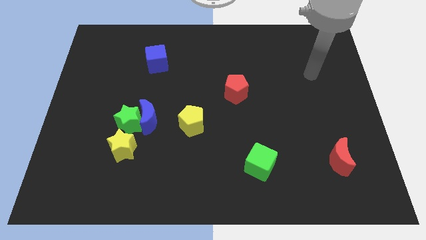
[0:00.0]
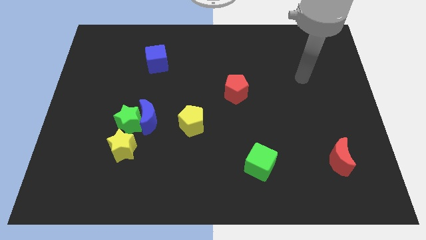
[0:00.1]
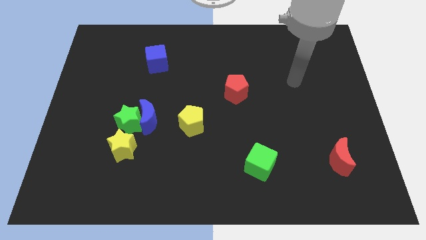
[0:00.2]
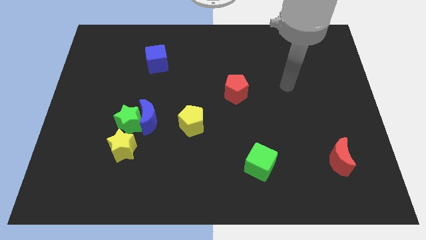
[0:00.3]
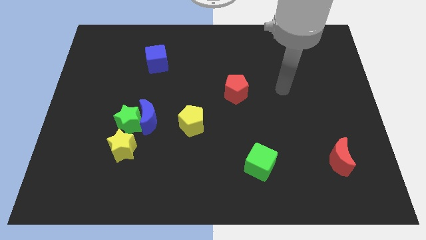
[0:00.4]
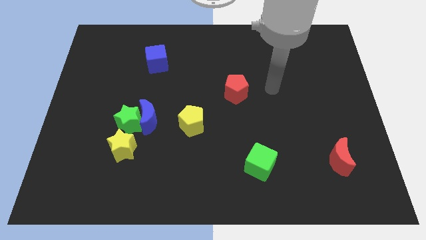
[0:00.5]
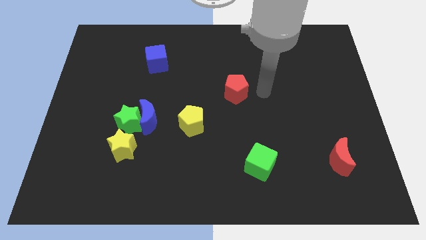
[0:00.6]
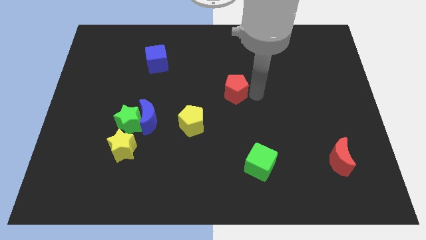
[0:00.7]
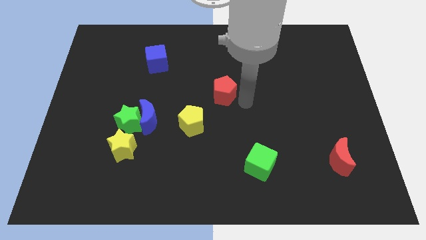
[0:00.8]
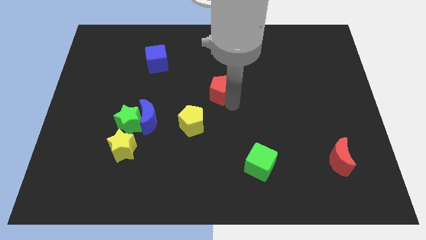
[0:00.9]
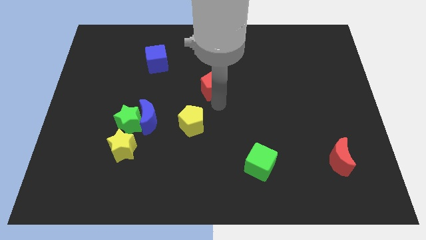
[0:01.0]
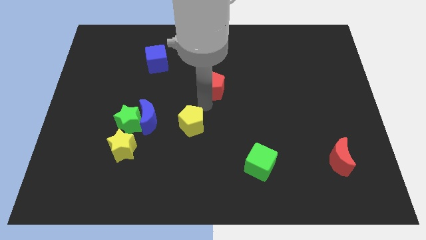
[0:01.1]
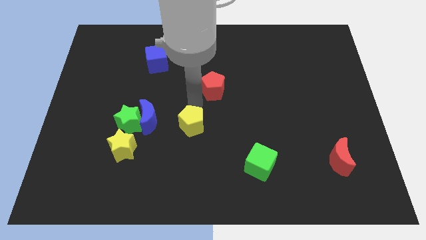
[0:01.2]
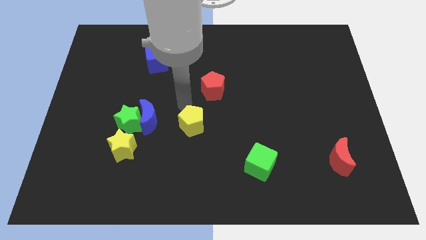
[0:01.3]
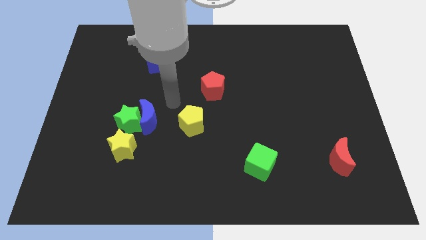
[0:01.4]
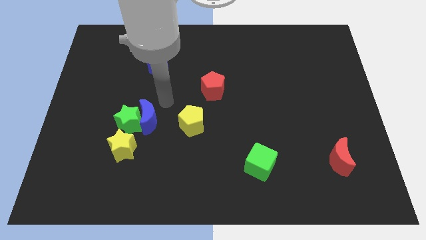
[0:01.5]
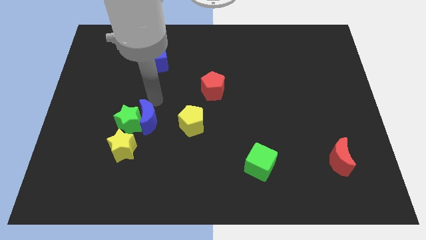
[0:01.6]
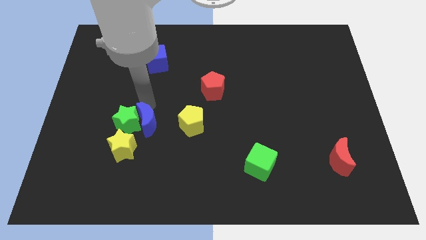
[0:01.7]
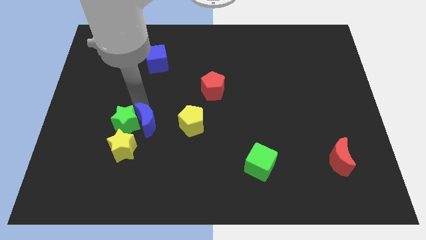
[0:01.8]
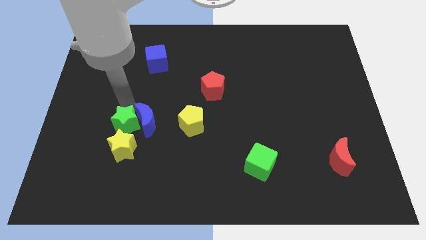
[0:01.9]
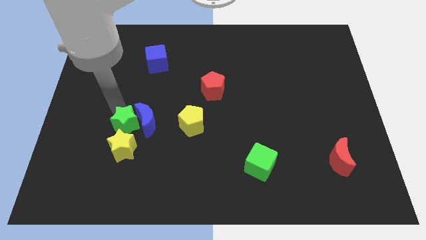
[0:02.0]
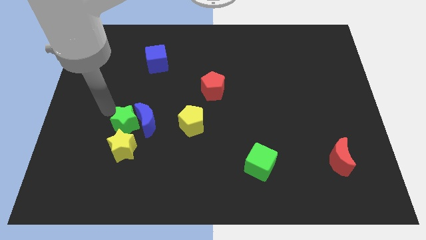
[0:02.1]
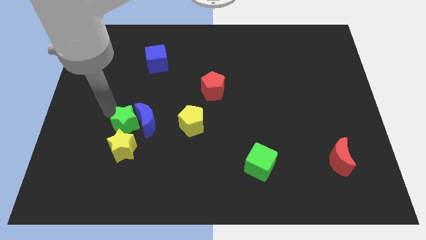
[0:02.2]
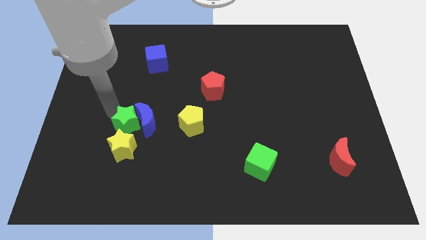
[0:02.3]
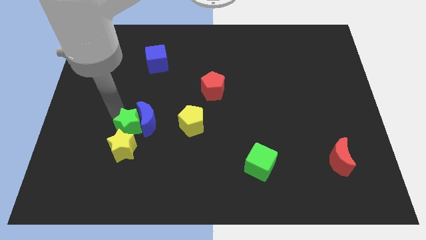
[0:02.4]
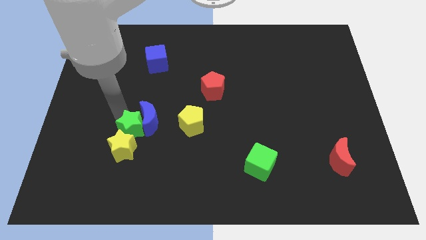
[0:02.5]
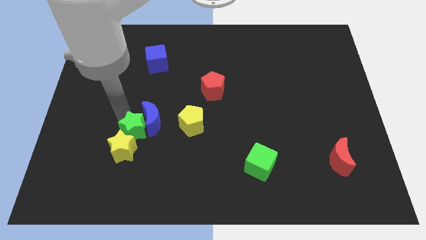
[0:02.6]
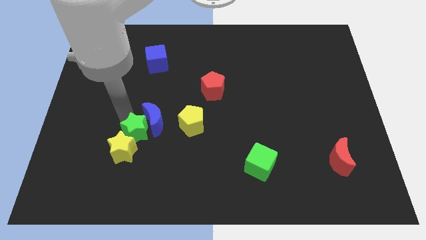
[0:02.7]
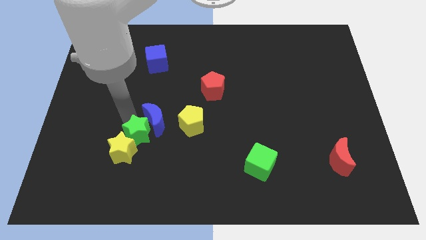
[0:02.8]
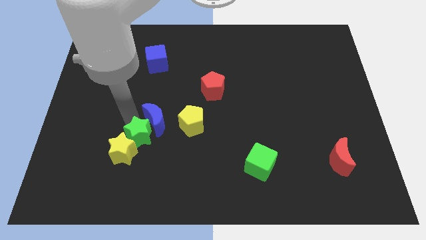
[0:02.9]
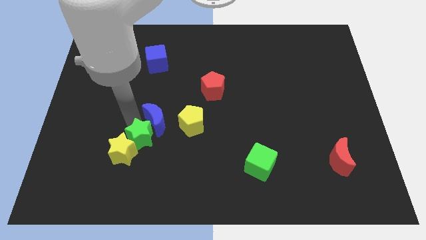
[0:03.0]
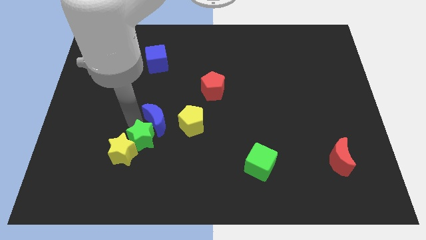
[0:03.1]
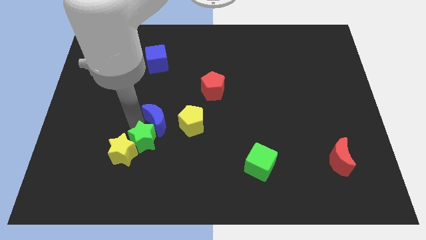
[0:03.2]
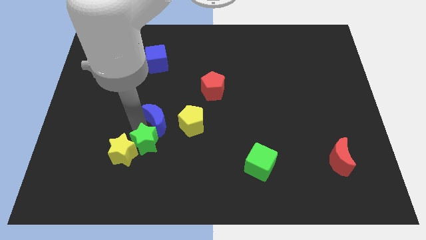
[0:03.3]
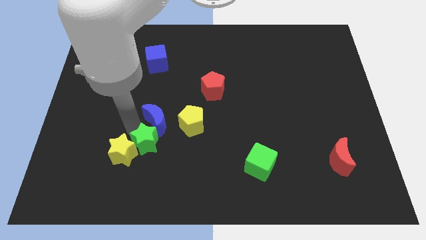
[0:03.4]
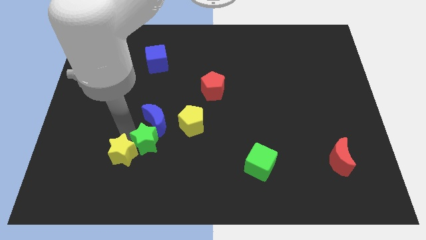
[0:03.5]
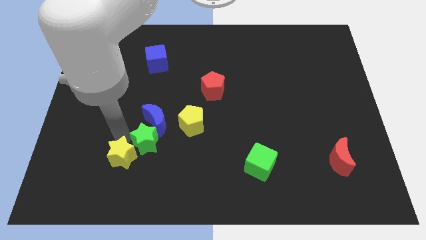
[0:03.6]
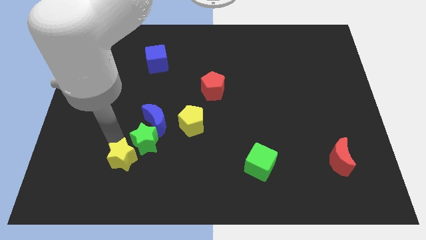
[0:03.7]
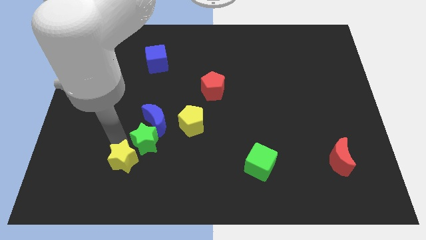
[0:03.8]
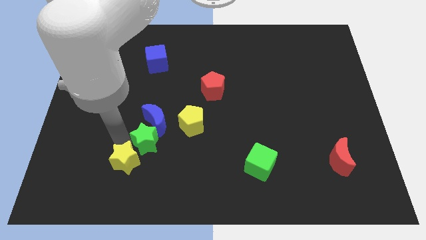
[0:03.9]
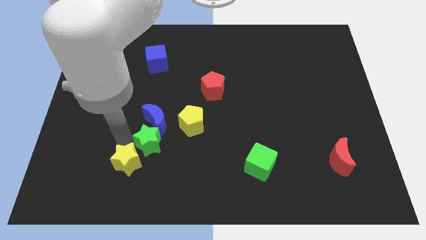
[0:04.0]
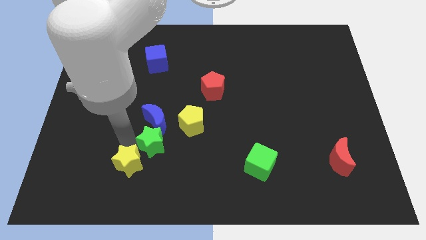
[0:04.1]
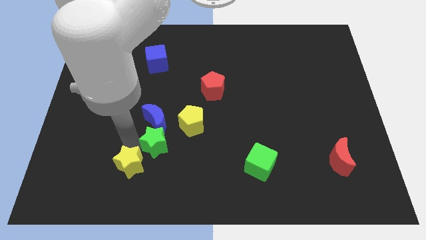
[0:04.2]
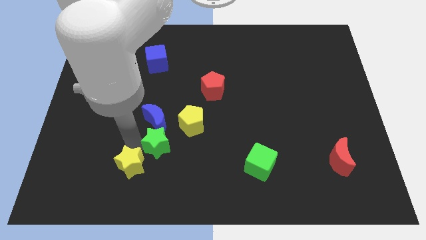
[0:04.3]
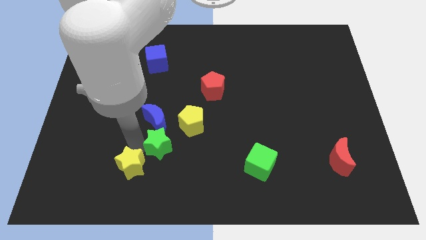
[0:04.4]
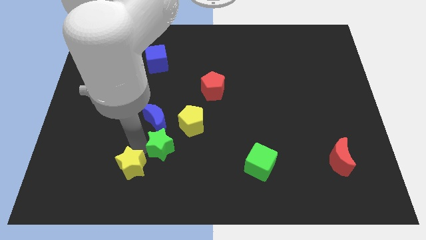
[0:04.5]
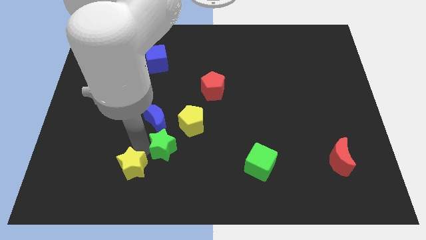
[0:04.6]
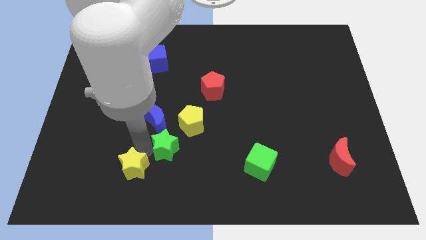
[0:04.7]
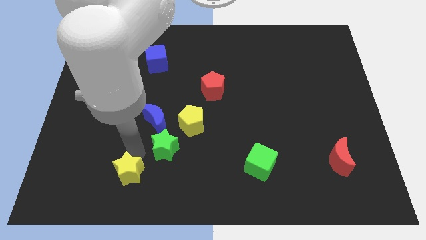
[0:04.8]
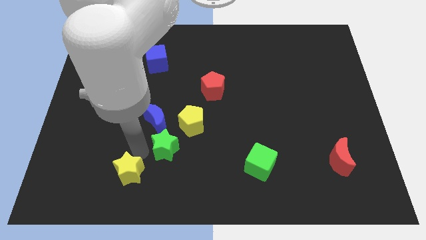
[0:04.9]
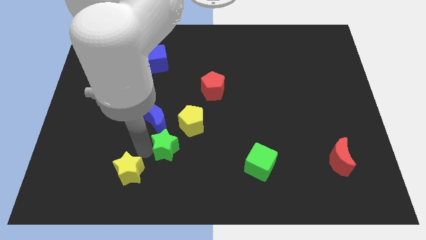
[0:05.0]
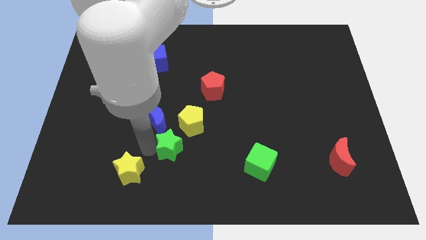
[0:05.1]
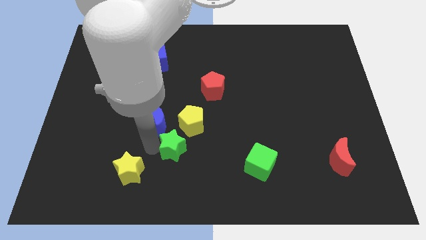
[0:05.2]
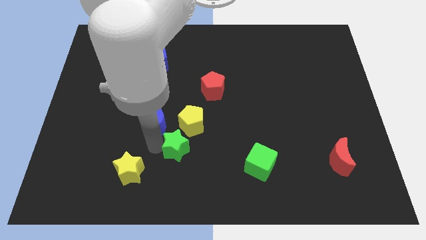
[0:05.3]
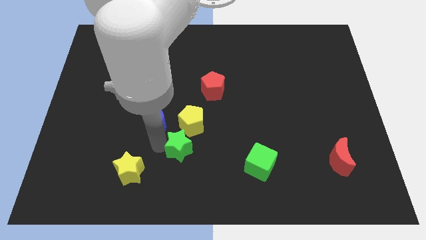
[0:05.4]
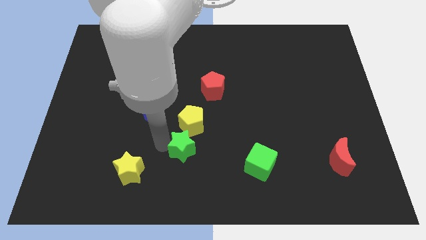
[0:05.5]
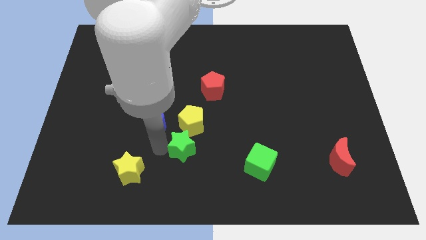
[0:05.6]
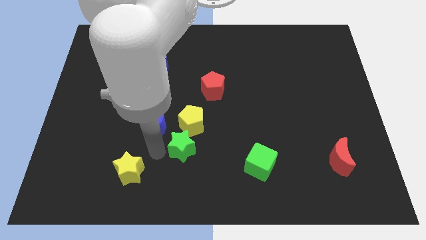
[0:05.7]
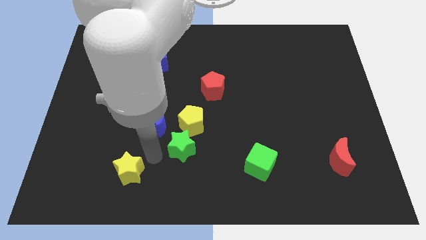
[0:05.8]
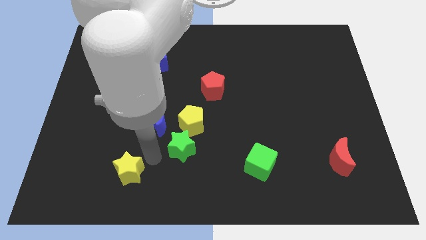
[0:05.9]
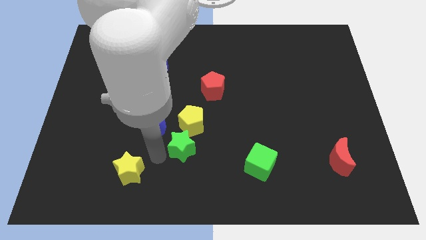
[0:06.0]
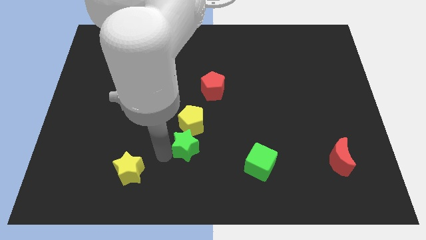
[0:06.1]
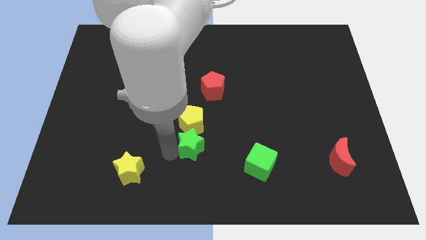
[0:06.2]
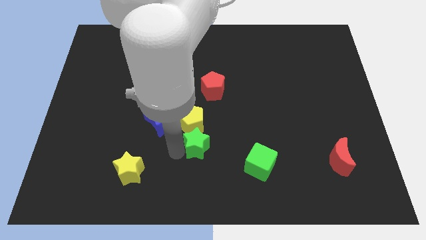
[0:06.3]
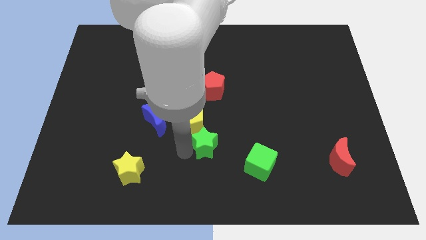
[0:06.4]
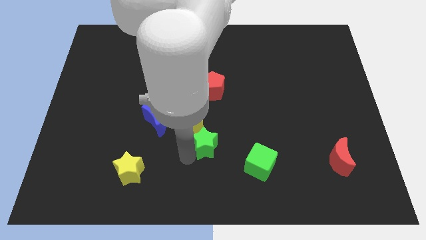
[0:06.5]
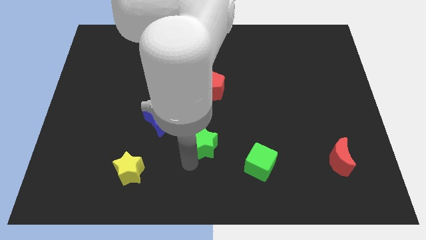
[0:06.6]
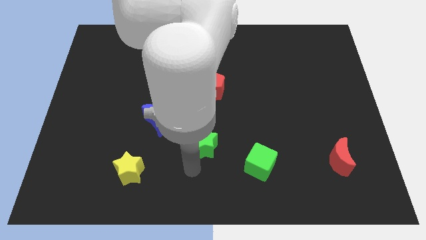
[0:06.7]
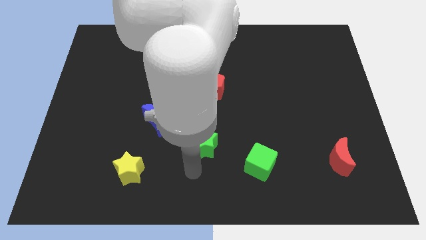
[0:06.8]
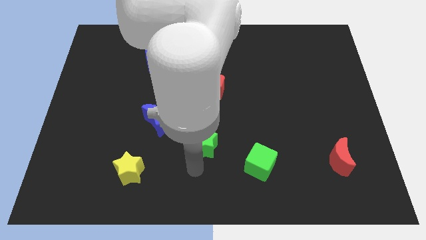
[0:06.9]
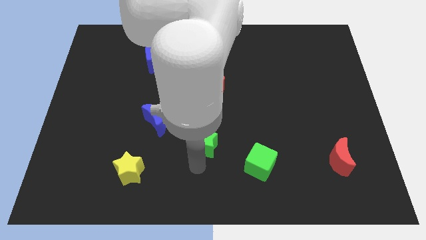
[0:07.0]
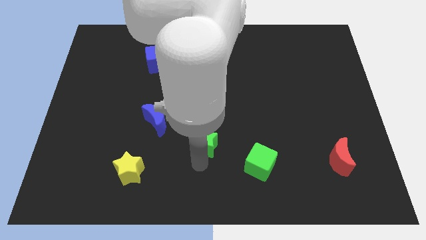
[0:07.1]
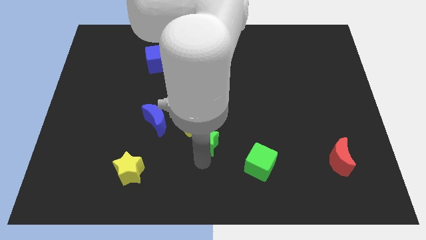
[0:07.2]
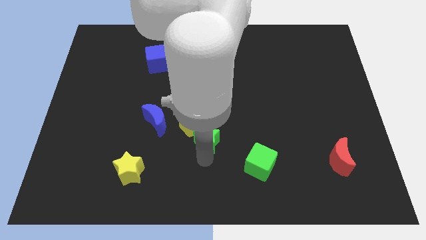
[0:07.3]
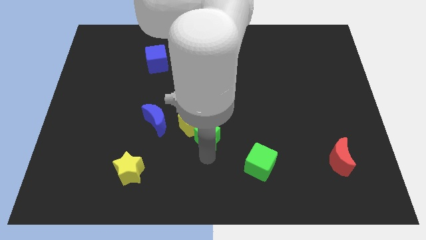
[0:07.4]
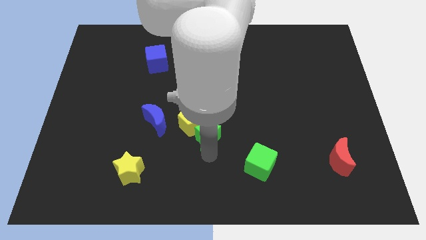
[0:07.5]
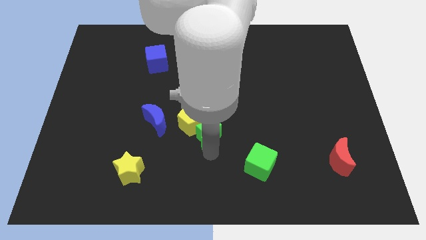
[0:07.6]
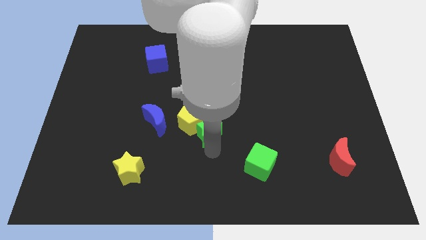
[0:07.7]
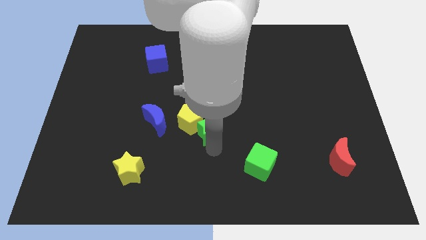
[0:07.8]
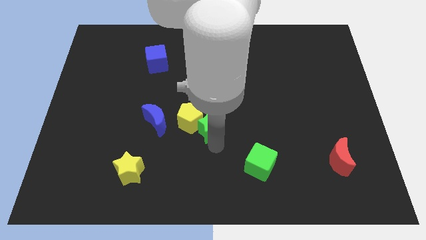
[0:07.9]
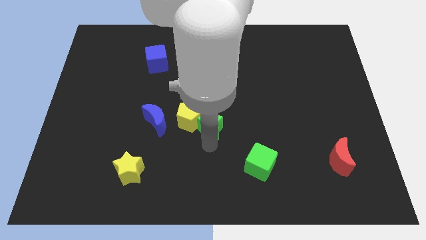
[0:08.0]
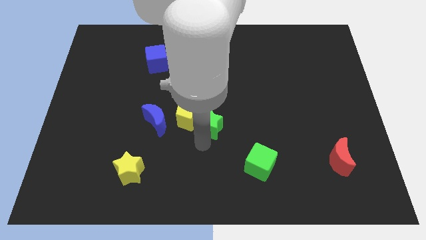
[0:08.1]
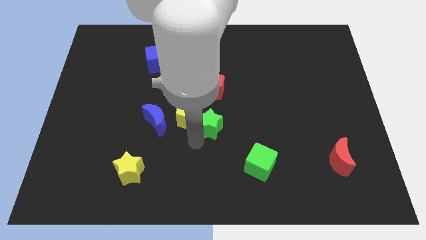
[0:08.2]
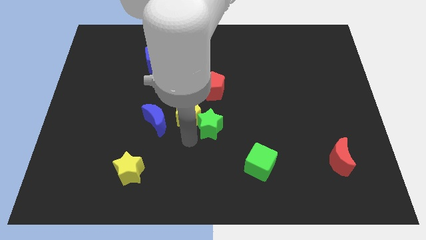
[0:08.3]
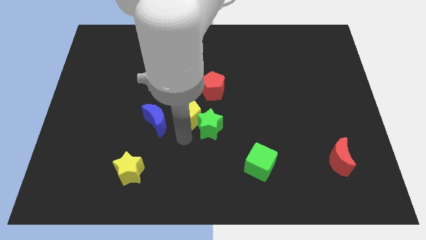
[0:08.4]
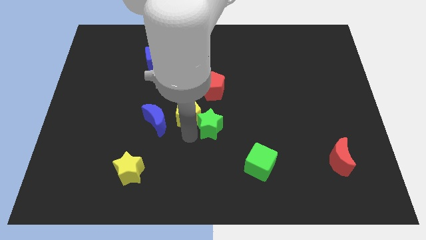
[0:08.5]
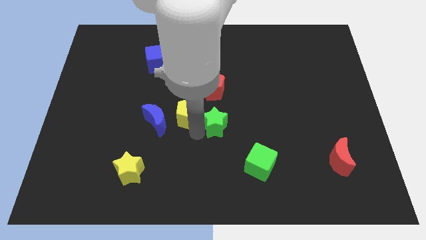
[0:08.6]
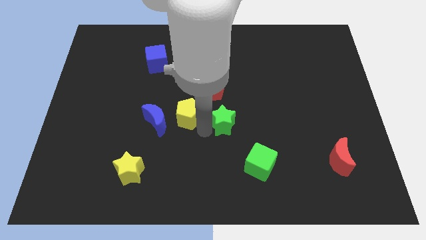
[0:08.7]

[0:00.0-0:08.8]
slide the green star right
